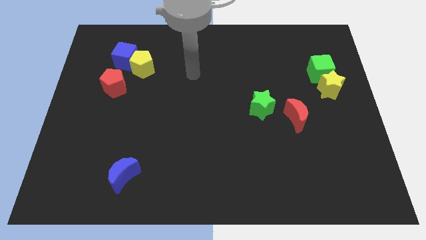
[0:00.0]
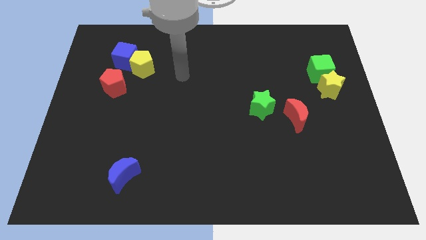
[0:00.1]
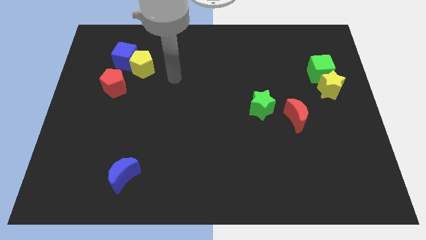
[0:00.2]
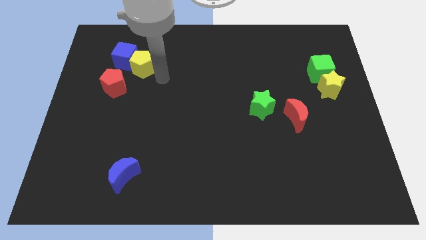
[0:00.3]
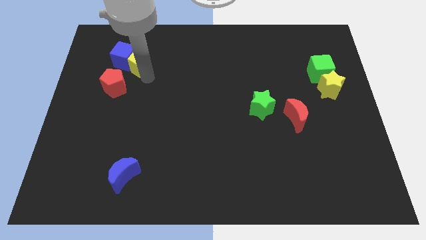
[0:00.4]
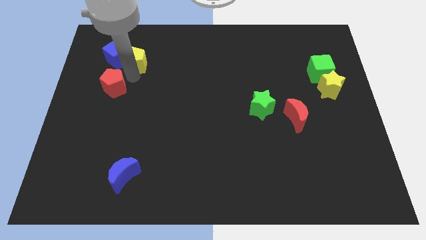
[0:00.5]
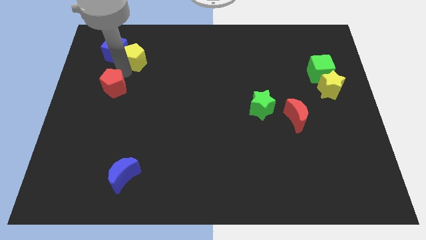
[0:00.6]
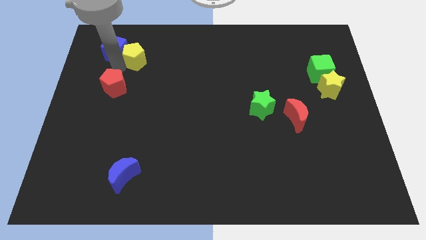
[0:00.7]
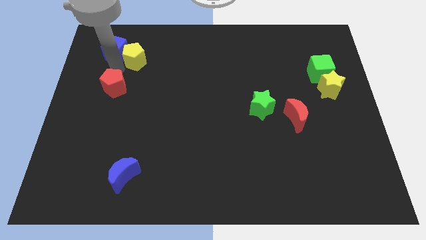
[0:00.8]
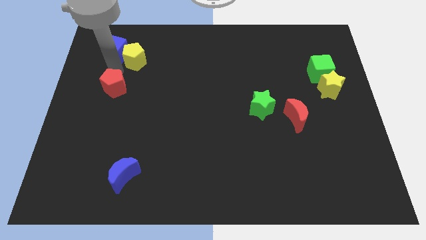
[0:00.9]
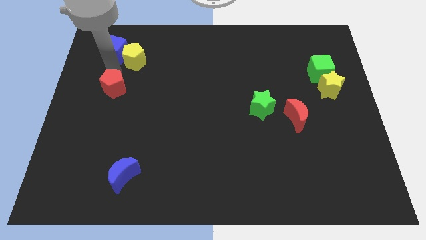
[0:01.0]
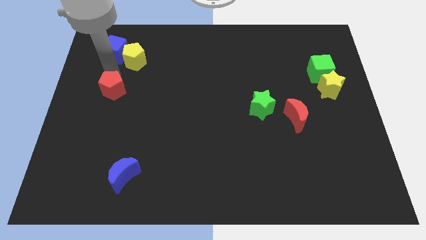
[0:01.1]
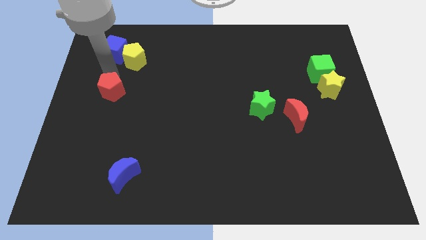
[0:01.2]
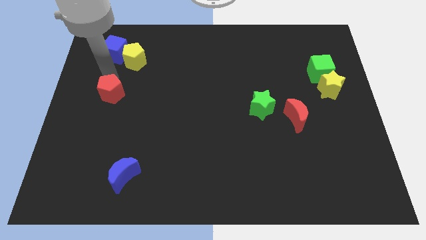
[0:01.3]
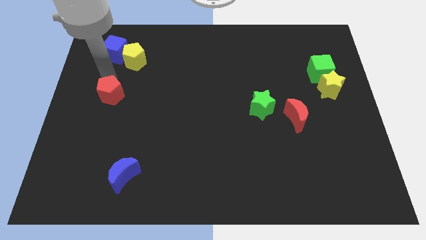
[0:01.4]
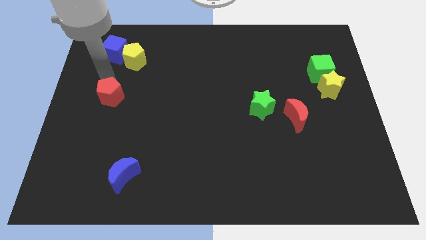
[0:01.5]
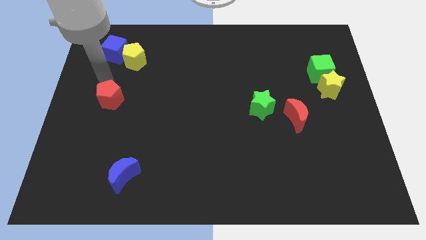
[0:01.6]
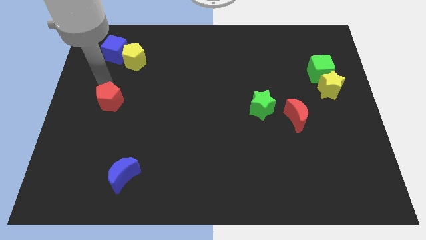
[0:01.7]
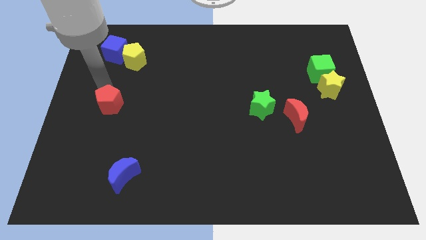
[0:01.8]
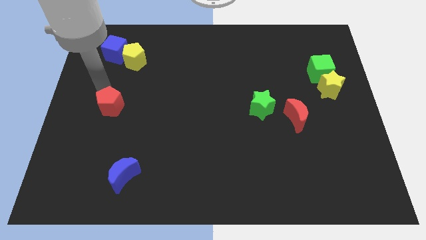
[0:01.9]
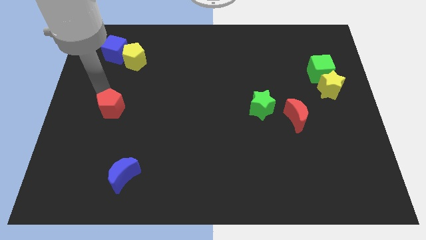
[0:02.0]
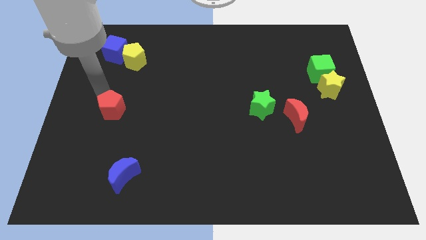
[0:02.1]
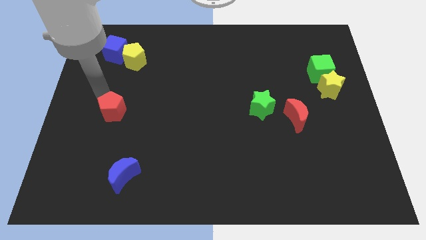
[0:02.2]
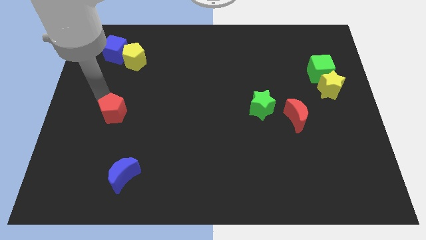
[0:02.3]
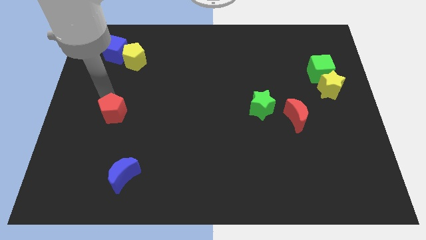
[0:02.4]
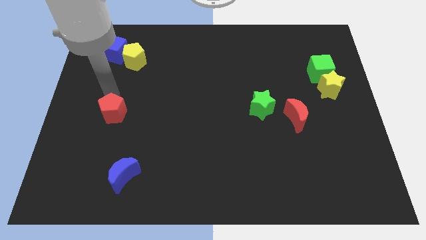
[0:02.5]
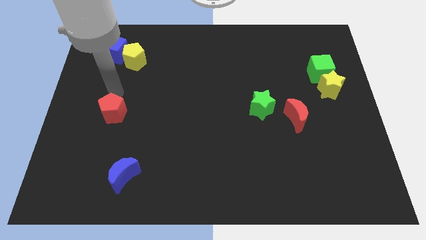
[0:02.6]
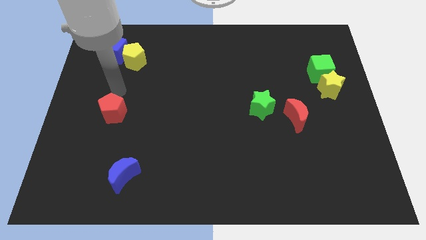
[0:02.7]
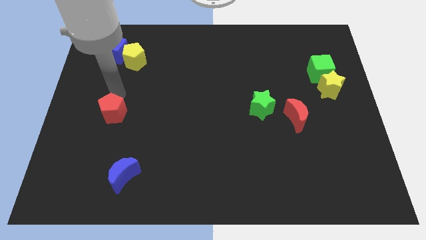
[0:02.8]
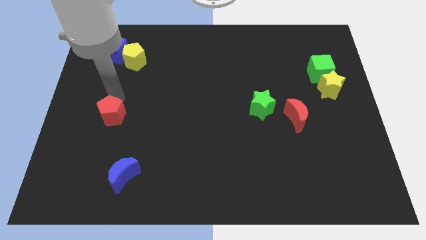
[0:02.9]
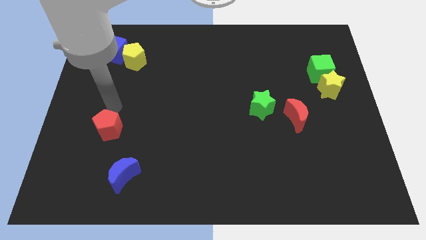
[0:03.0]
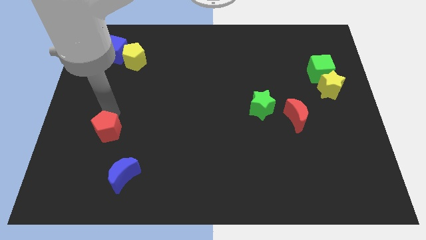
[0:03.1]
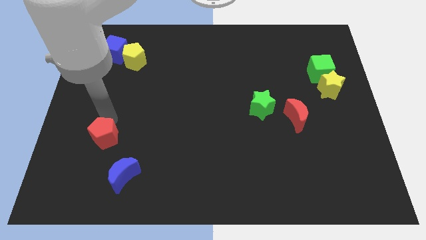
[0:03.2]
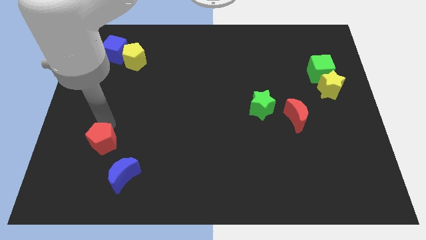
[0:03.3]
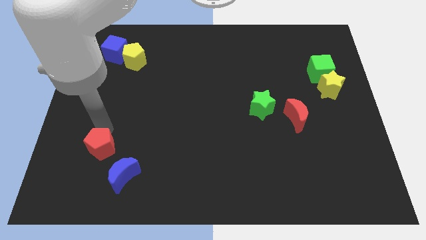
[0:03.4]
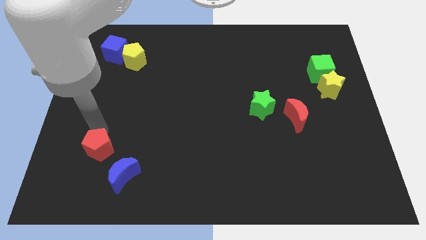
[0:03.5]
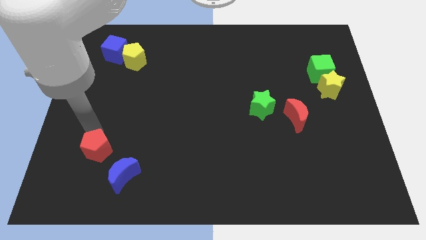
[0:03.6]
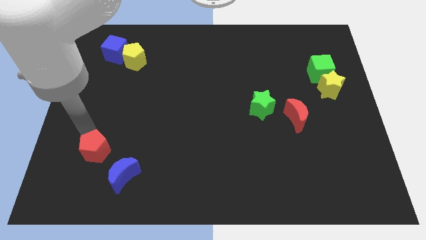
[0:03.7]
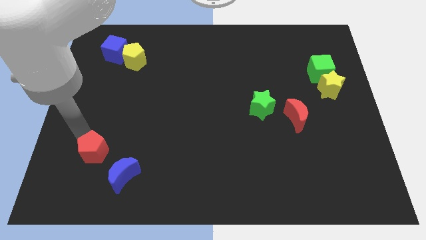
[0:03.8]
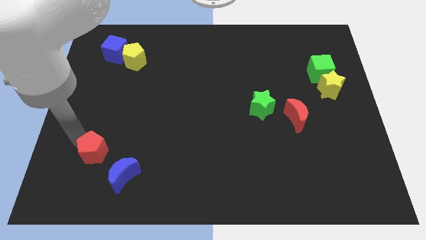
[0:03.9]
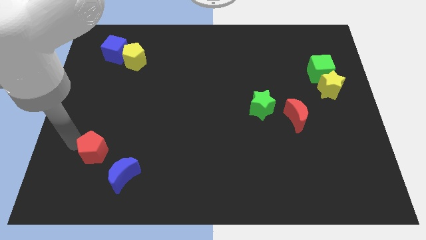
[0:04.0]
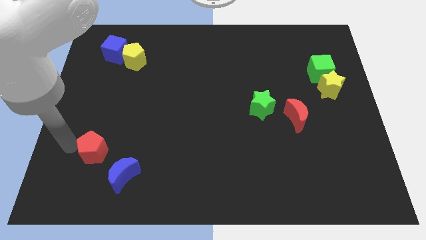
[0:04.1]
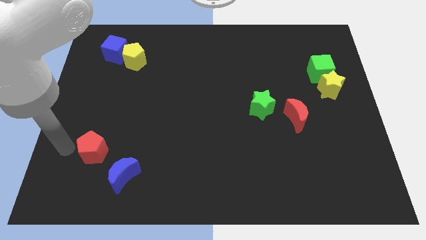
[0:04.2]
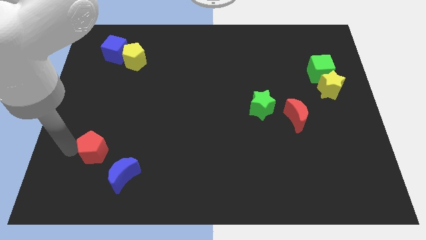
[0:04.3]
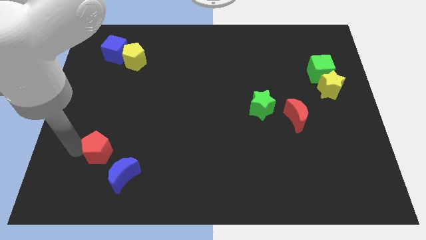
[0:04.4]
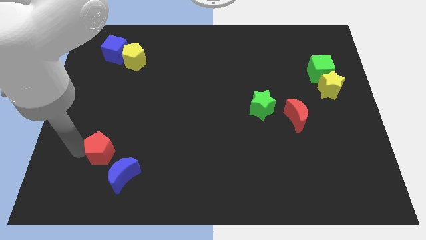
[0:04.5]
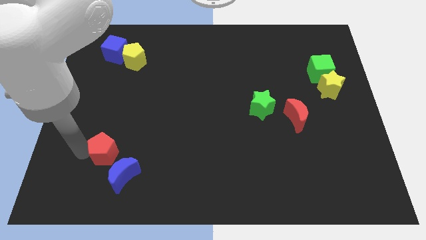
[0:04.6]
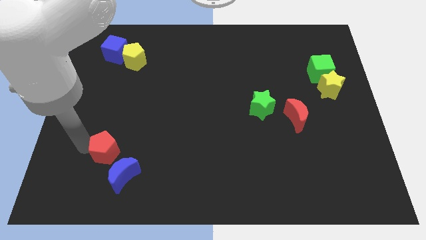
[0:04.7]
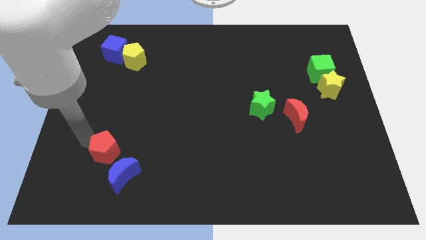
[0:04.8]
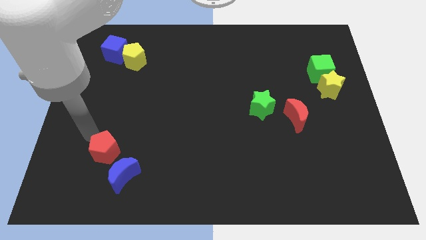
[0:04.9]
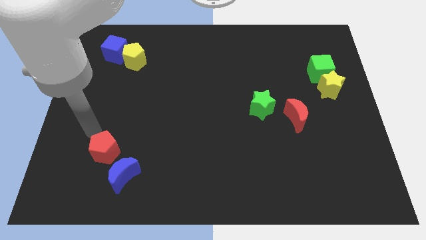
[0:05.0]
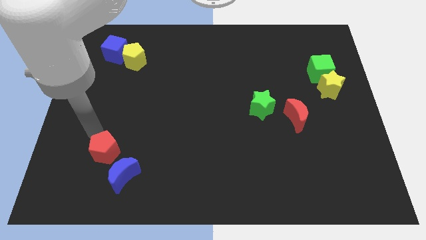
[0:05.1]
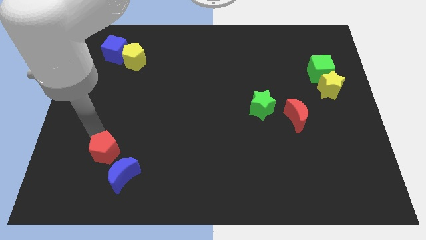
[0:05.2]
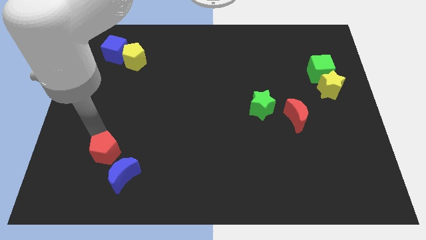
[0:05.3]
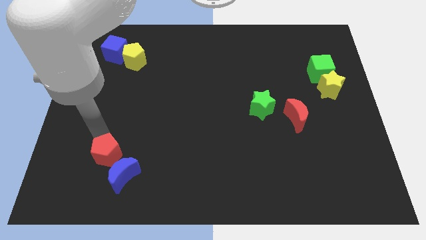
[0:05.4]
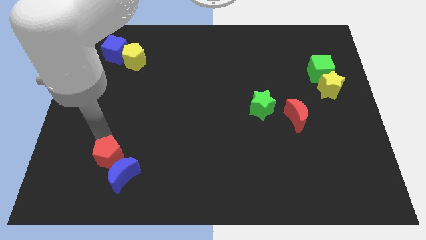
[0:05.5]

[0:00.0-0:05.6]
slide the red pentagon to the blue moon

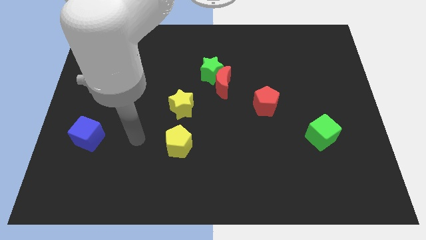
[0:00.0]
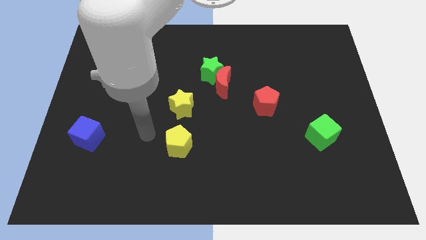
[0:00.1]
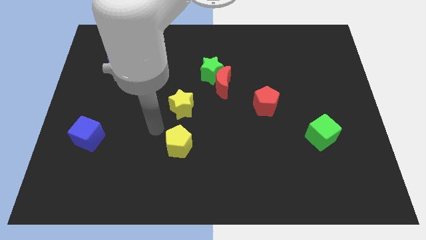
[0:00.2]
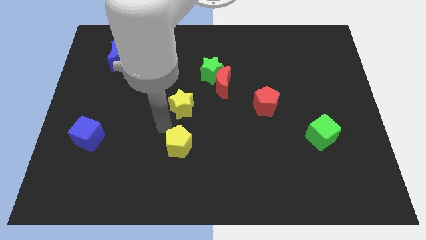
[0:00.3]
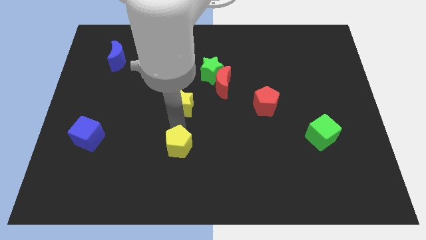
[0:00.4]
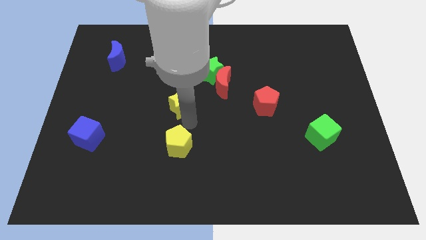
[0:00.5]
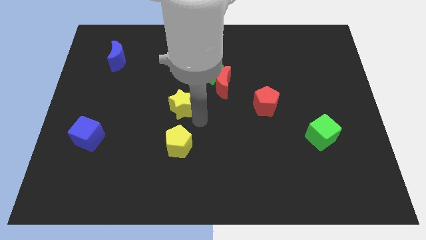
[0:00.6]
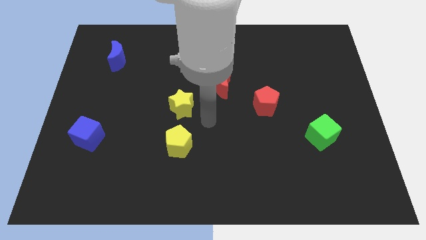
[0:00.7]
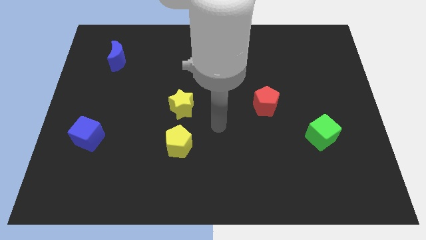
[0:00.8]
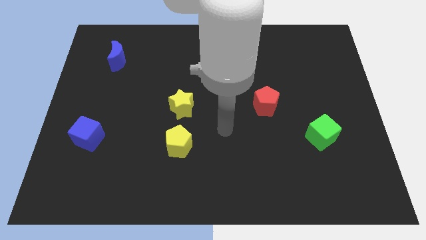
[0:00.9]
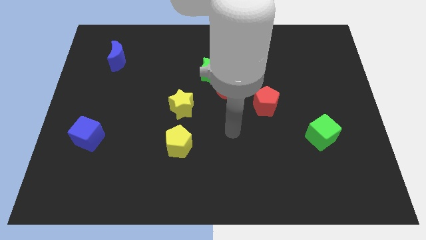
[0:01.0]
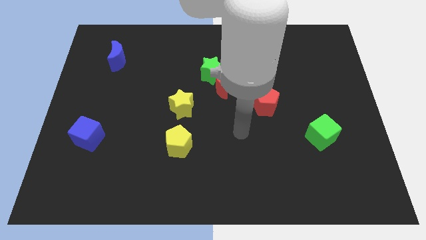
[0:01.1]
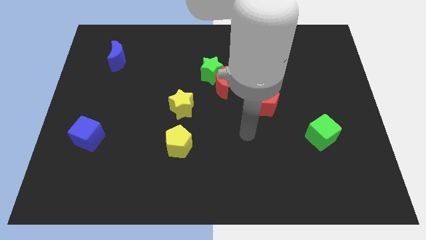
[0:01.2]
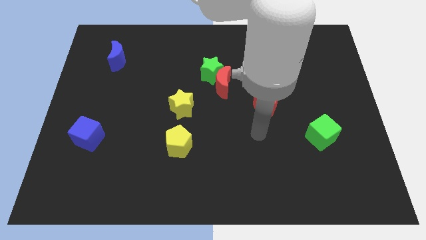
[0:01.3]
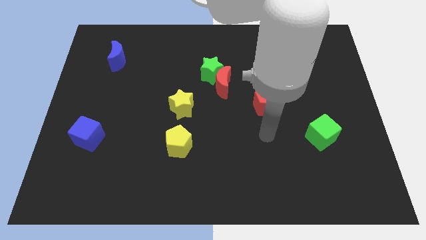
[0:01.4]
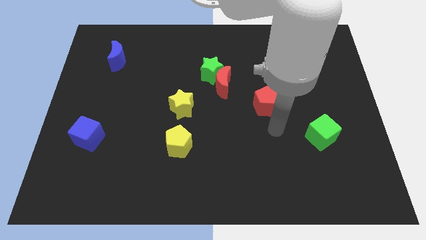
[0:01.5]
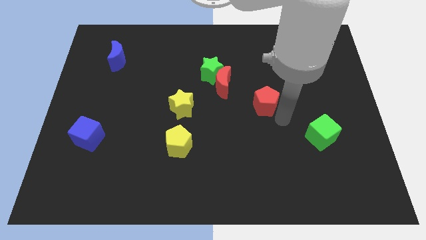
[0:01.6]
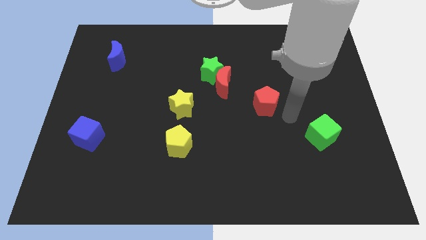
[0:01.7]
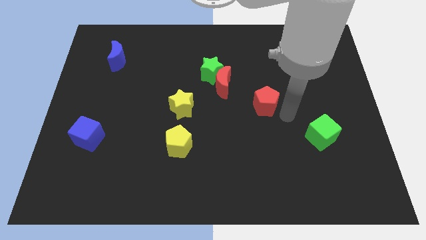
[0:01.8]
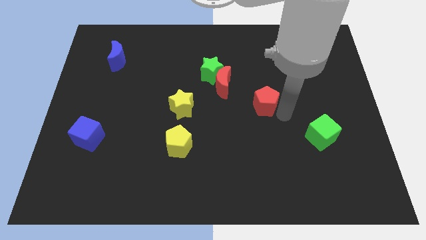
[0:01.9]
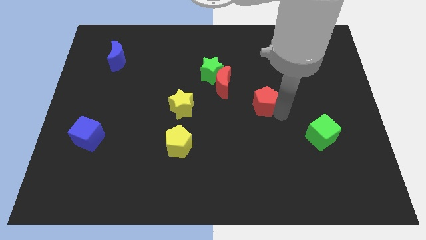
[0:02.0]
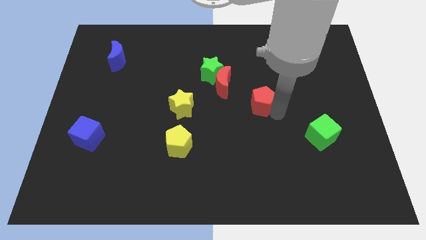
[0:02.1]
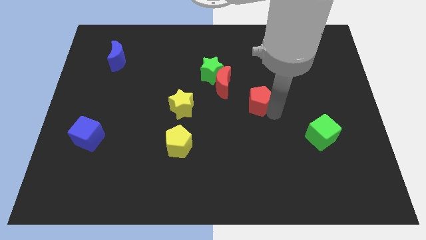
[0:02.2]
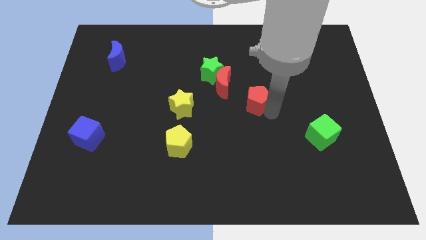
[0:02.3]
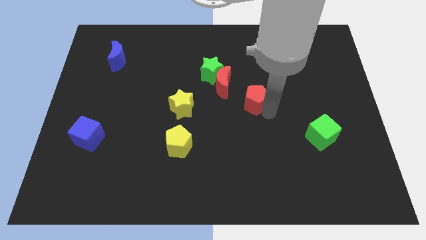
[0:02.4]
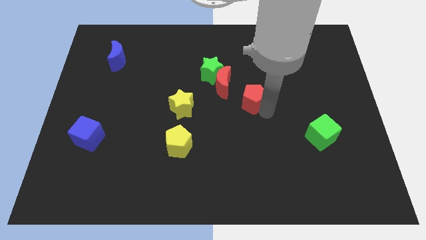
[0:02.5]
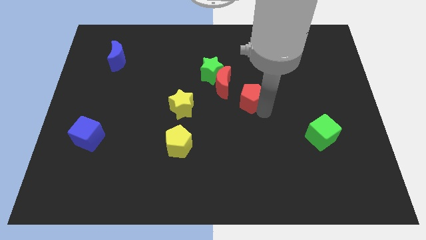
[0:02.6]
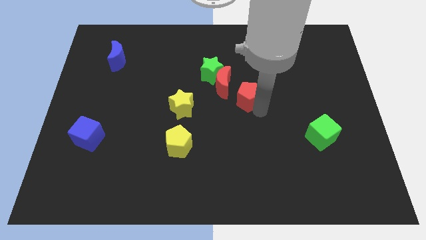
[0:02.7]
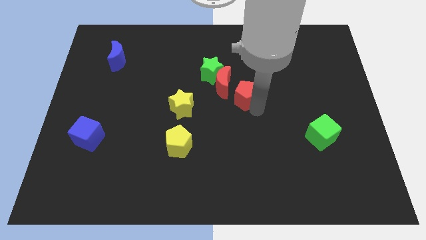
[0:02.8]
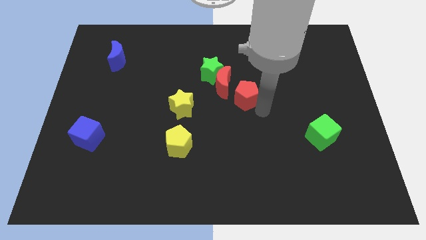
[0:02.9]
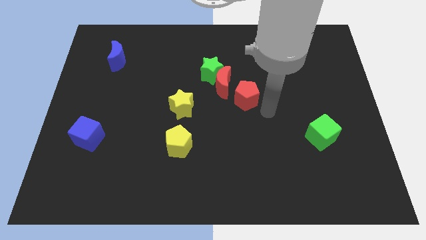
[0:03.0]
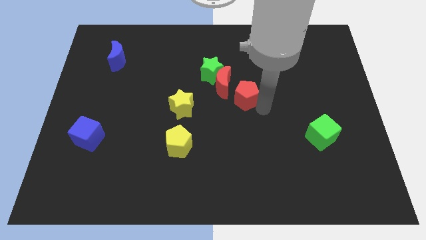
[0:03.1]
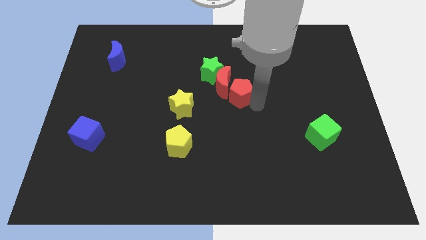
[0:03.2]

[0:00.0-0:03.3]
put the red pentagon towards the red moon
